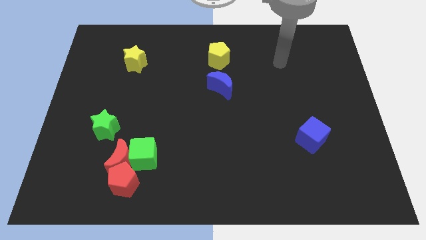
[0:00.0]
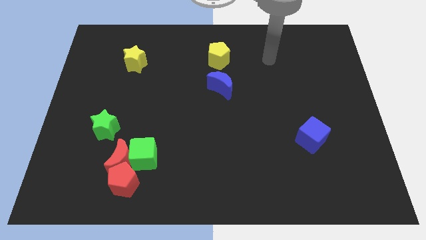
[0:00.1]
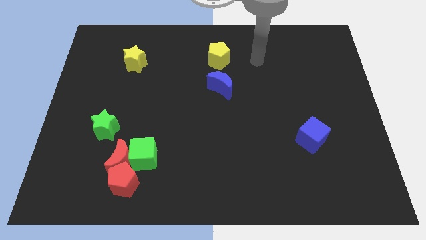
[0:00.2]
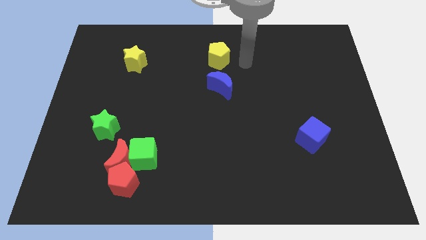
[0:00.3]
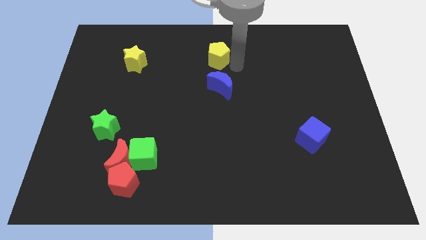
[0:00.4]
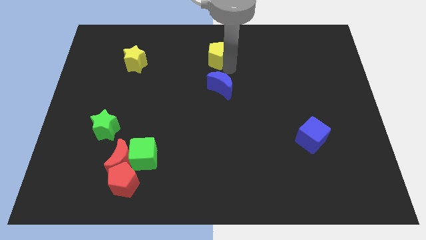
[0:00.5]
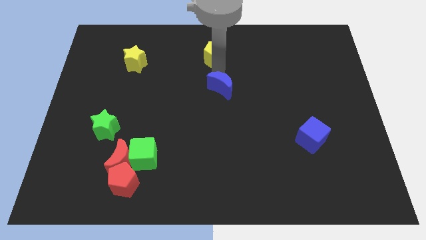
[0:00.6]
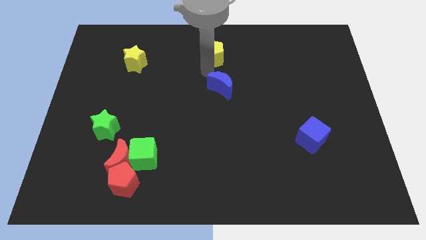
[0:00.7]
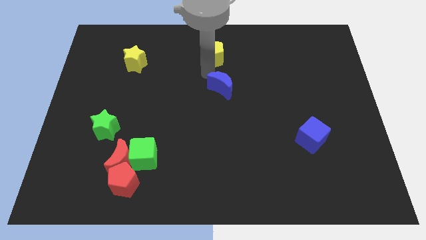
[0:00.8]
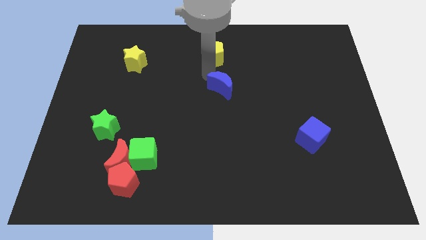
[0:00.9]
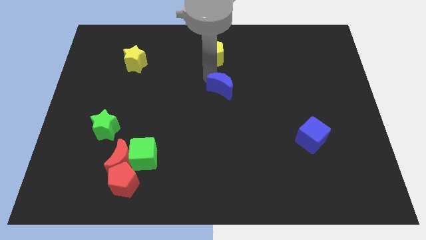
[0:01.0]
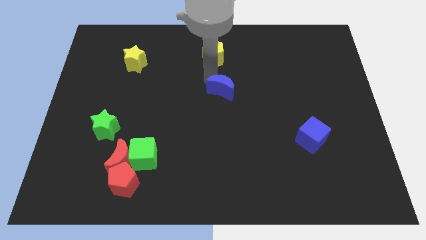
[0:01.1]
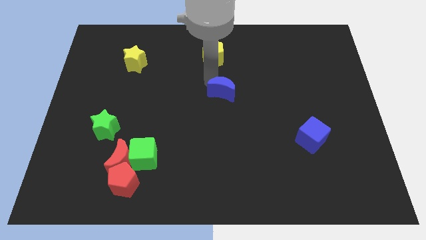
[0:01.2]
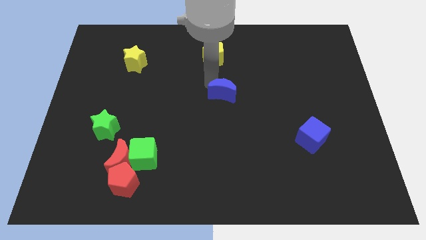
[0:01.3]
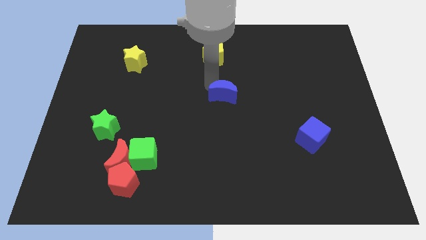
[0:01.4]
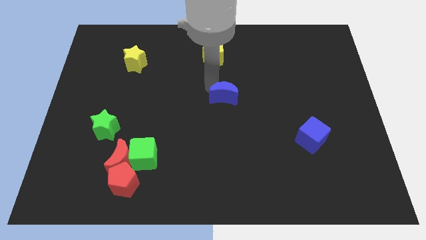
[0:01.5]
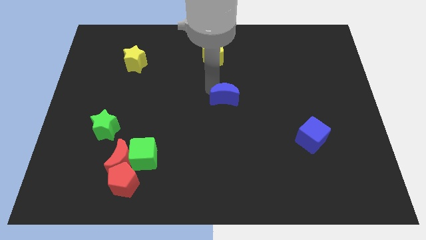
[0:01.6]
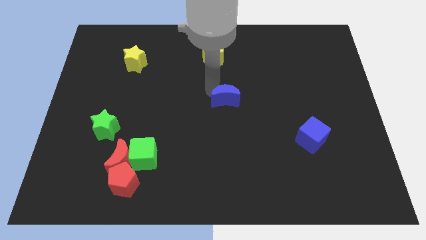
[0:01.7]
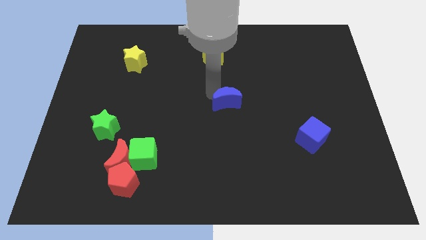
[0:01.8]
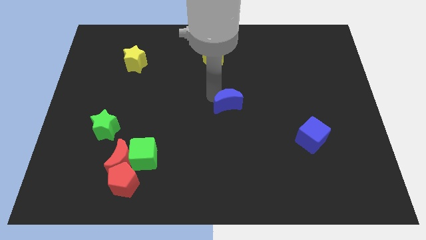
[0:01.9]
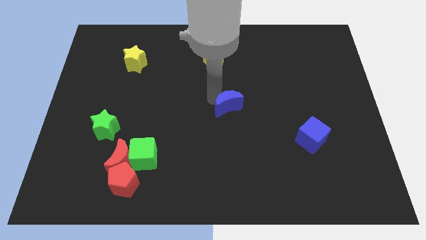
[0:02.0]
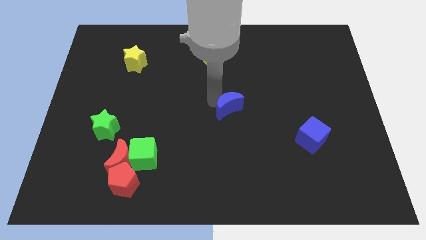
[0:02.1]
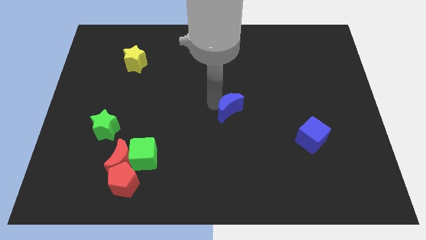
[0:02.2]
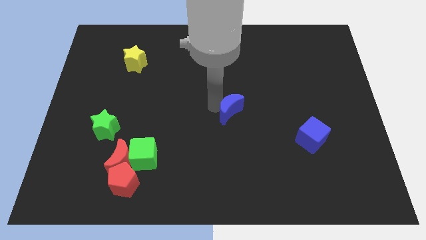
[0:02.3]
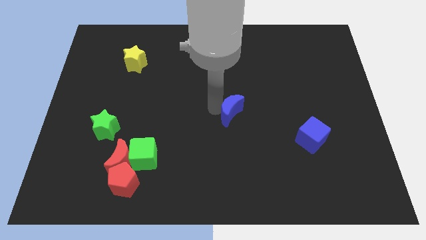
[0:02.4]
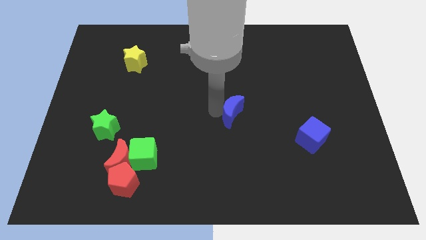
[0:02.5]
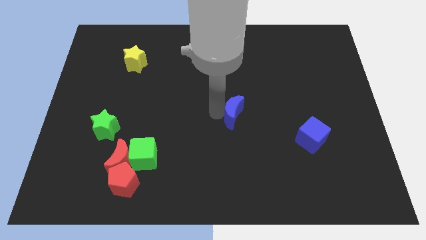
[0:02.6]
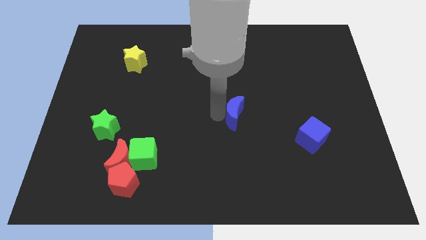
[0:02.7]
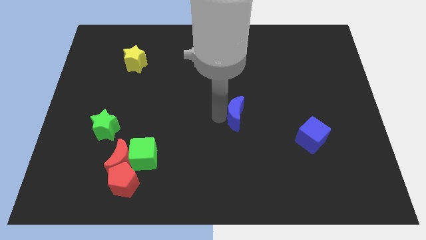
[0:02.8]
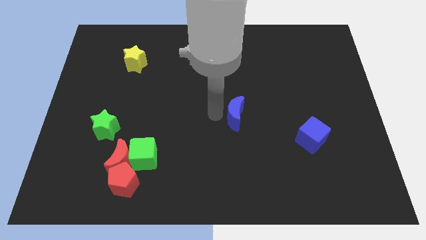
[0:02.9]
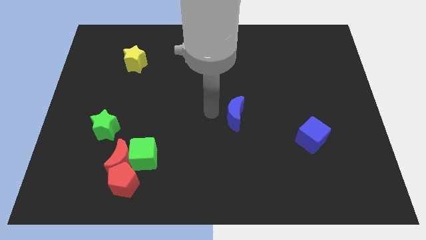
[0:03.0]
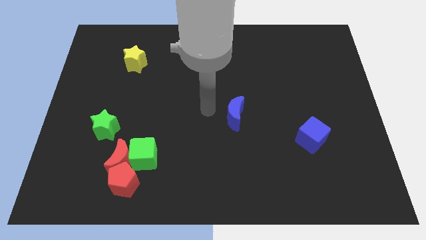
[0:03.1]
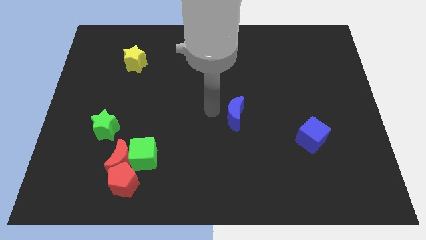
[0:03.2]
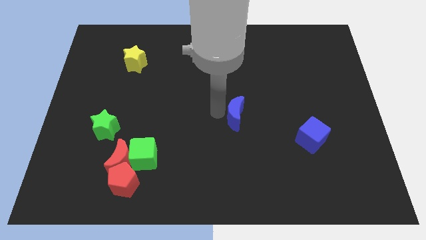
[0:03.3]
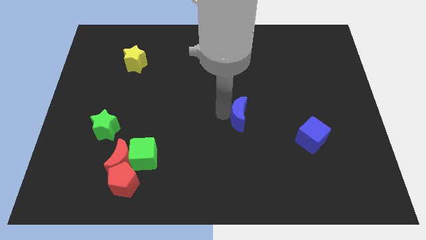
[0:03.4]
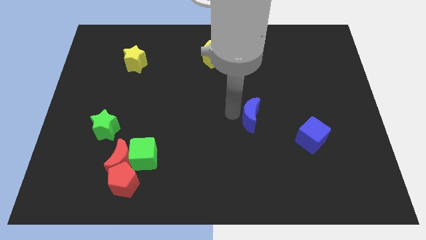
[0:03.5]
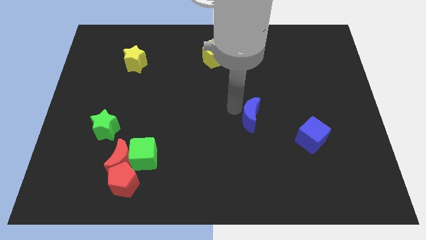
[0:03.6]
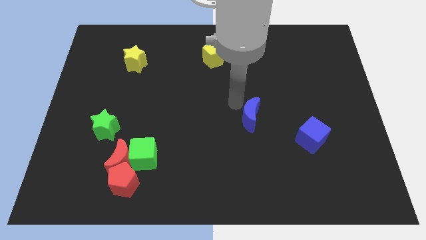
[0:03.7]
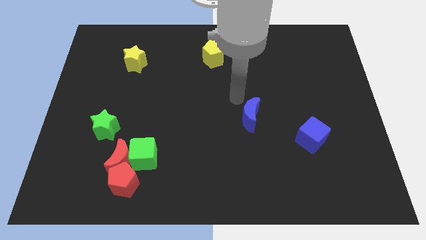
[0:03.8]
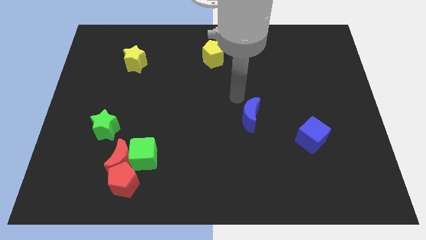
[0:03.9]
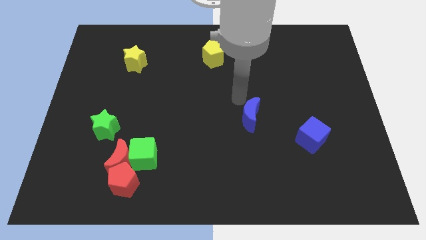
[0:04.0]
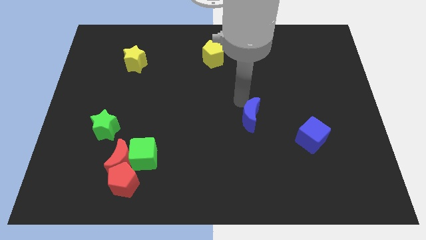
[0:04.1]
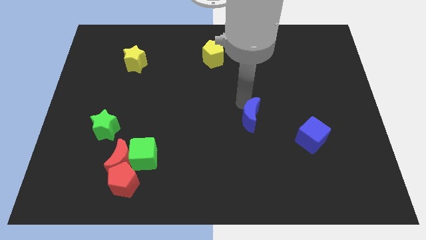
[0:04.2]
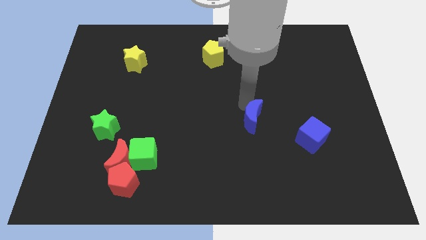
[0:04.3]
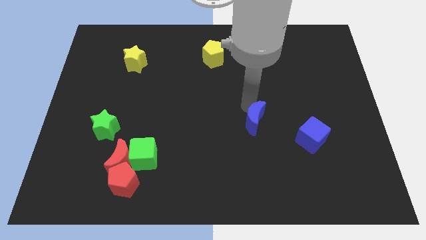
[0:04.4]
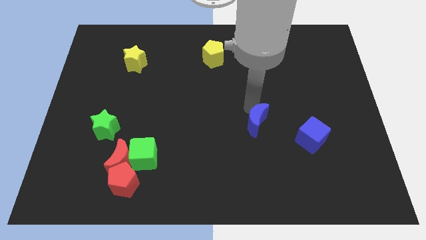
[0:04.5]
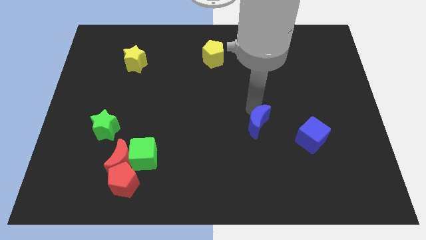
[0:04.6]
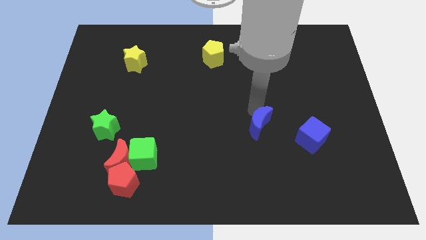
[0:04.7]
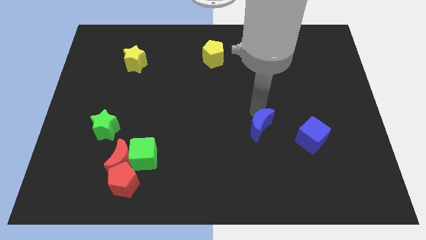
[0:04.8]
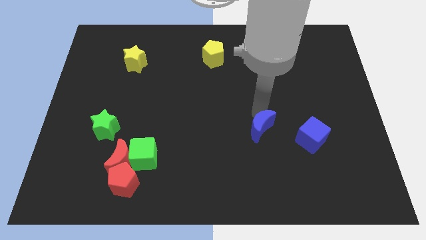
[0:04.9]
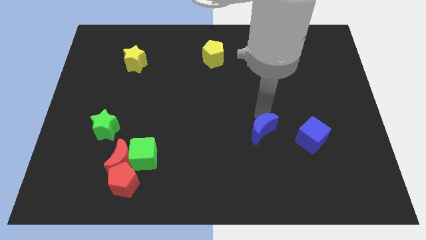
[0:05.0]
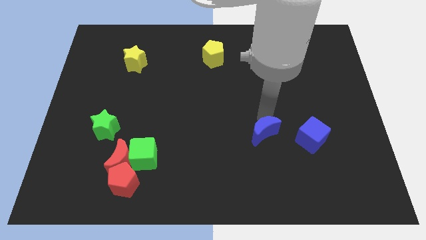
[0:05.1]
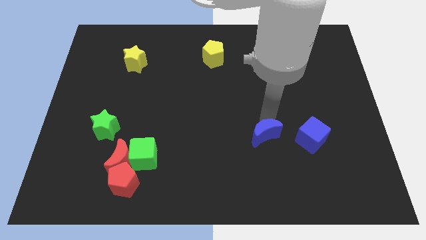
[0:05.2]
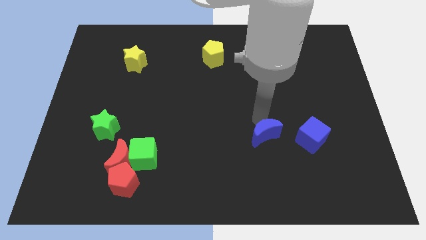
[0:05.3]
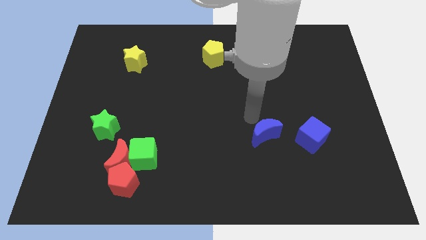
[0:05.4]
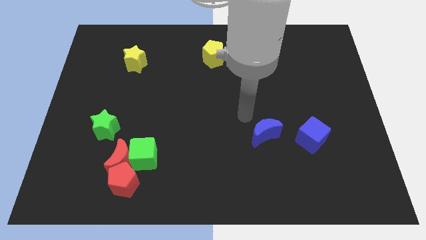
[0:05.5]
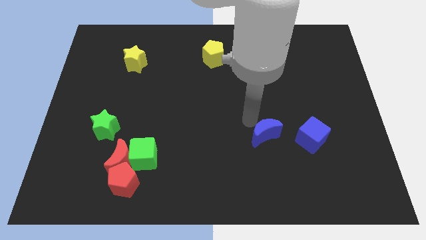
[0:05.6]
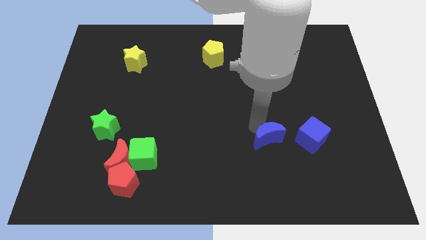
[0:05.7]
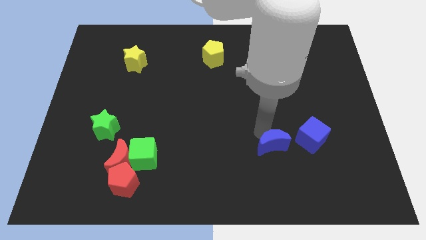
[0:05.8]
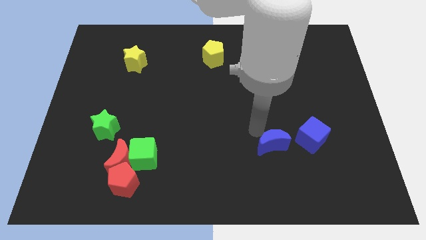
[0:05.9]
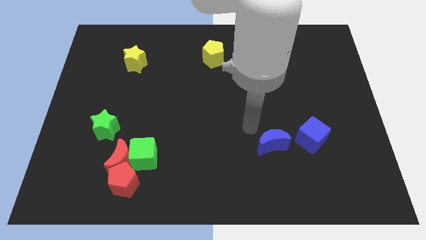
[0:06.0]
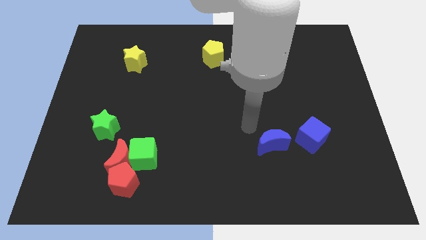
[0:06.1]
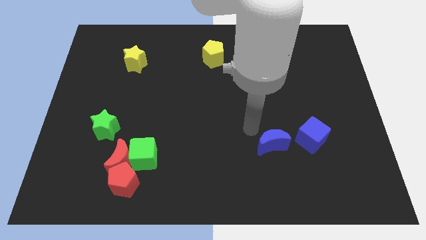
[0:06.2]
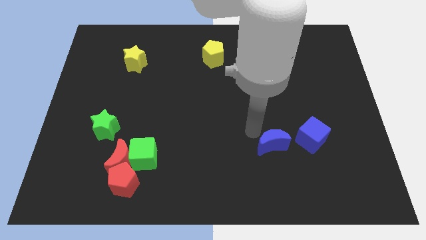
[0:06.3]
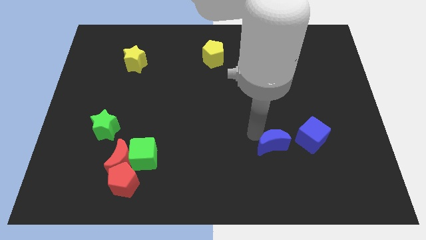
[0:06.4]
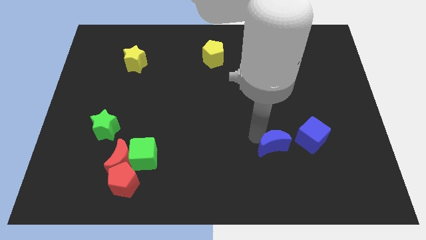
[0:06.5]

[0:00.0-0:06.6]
slide the blue moon to the bottom left of the blue cube
